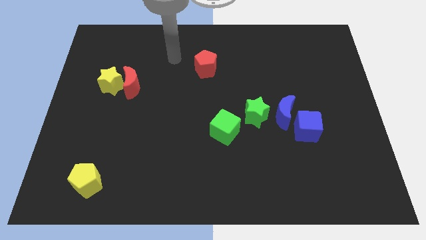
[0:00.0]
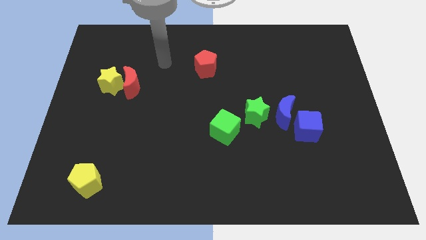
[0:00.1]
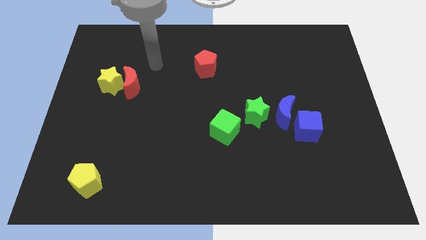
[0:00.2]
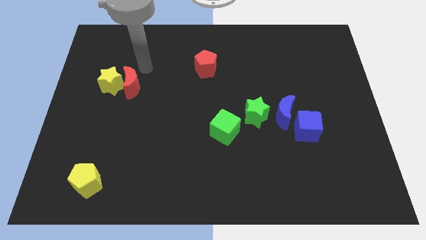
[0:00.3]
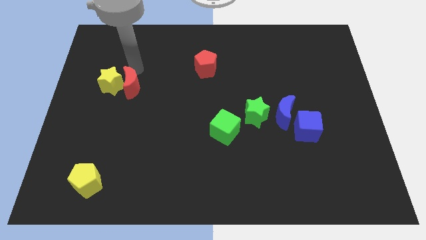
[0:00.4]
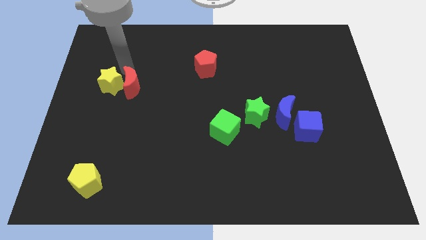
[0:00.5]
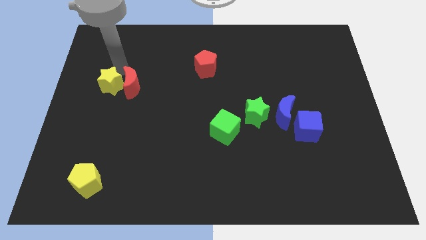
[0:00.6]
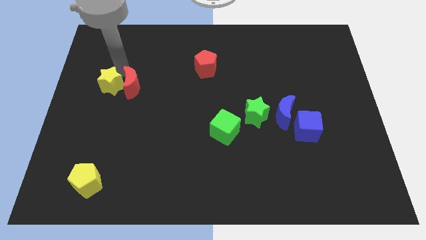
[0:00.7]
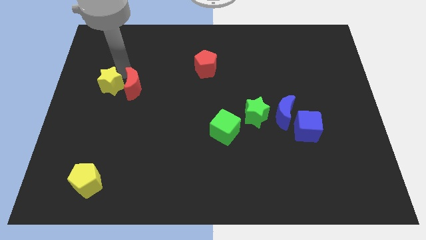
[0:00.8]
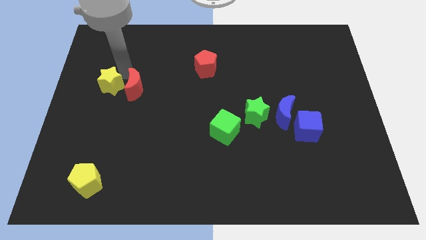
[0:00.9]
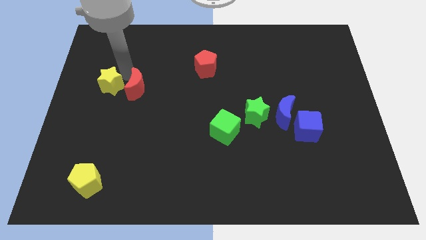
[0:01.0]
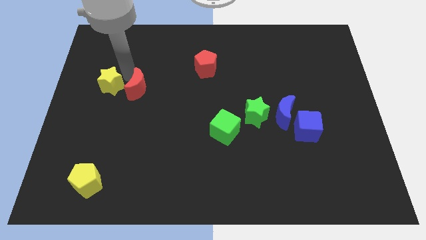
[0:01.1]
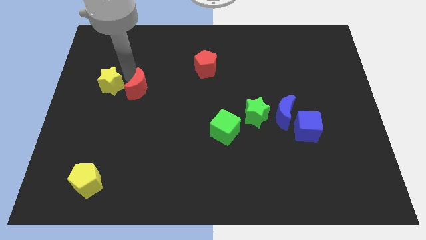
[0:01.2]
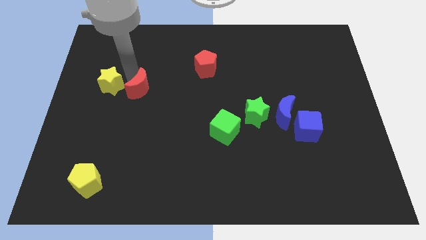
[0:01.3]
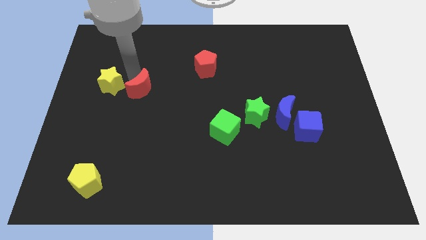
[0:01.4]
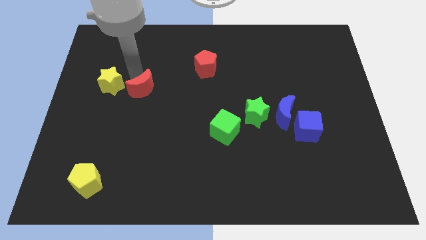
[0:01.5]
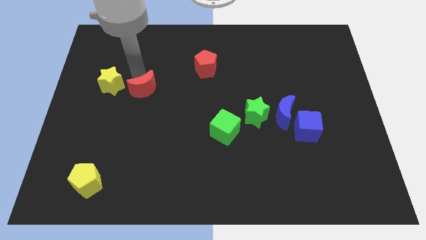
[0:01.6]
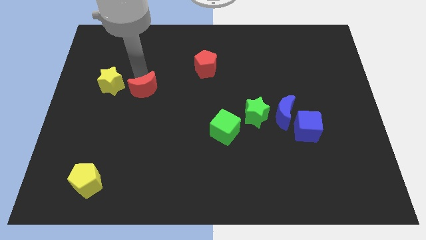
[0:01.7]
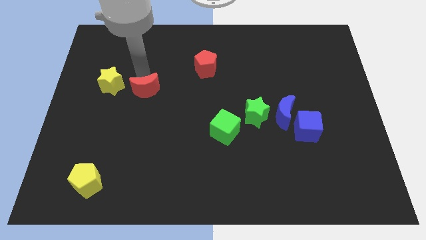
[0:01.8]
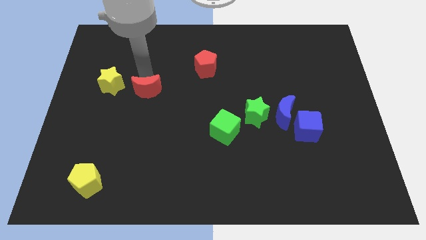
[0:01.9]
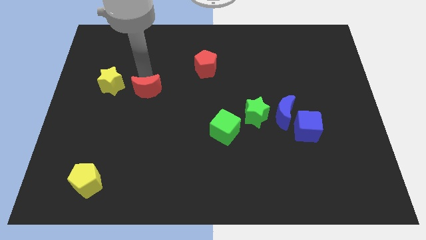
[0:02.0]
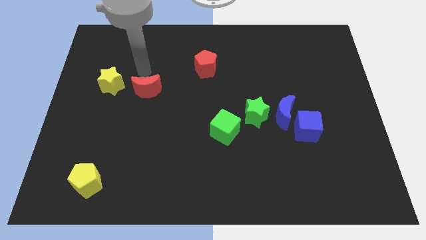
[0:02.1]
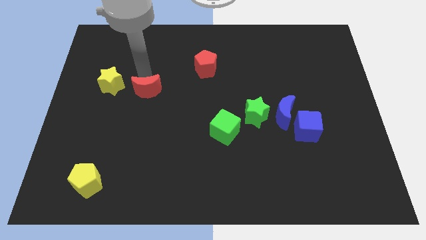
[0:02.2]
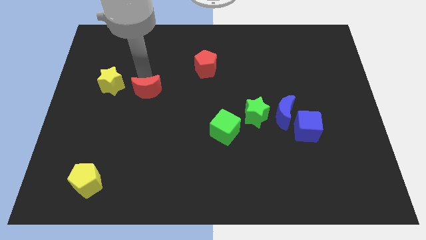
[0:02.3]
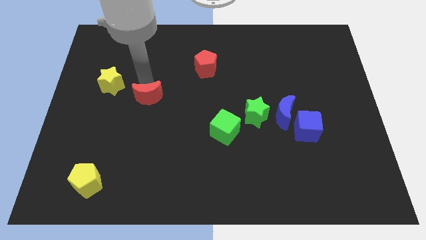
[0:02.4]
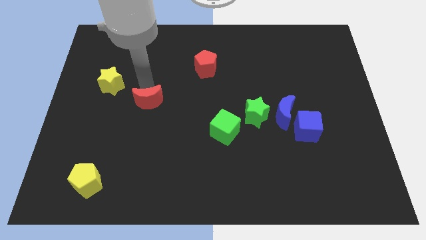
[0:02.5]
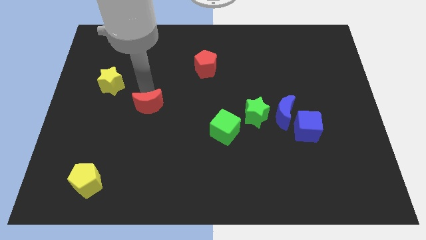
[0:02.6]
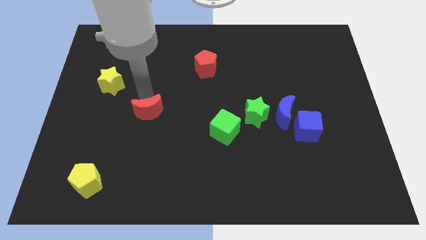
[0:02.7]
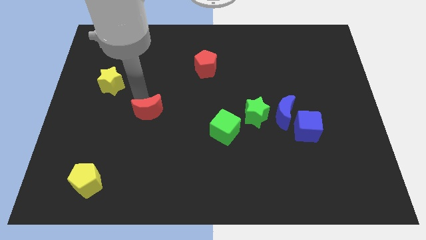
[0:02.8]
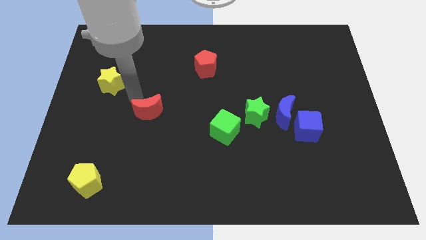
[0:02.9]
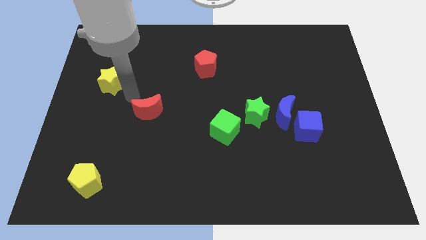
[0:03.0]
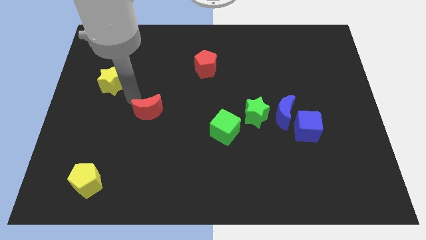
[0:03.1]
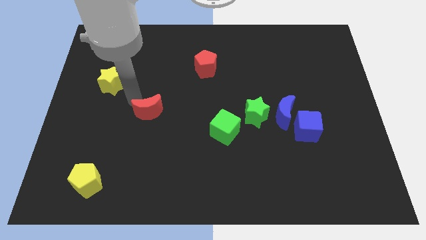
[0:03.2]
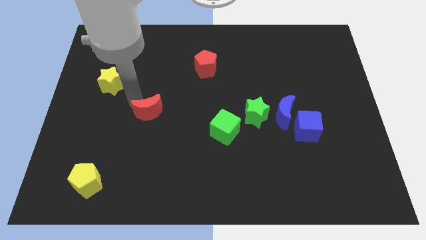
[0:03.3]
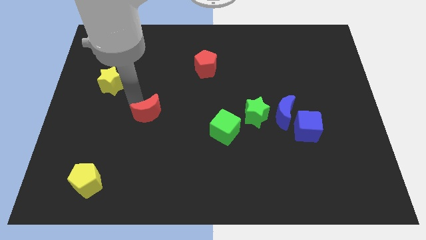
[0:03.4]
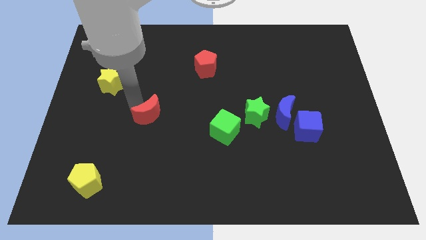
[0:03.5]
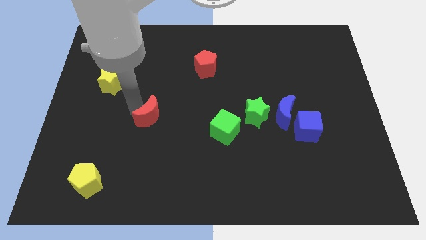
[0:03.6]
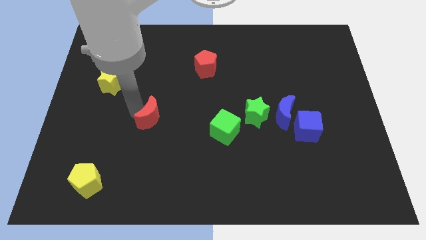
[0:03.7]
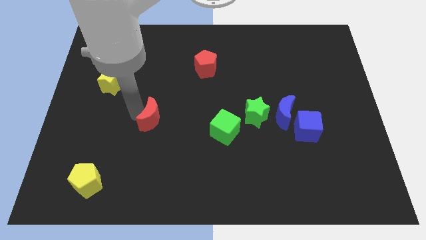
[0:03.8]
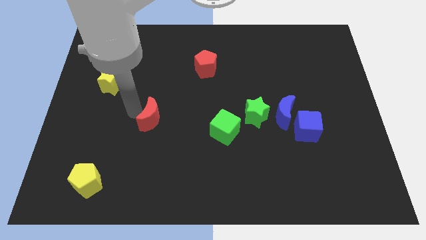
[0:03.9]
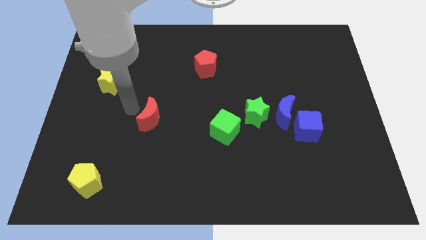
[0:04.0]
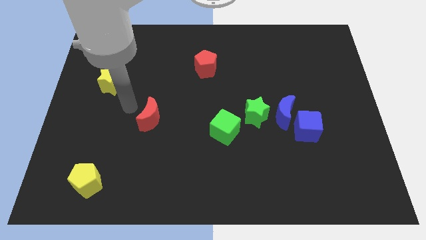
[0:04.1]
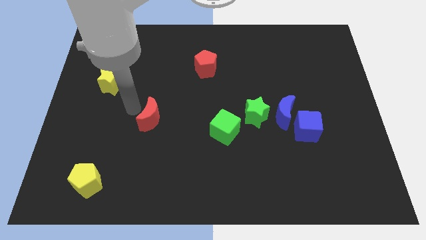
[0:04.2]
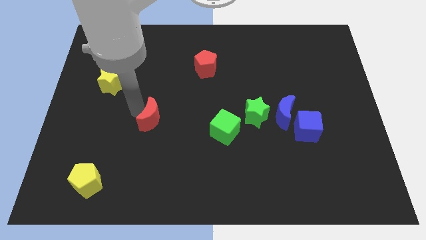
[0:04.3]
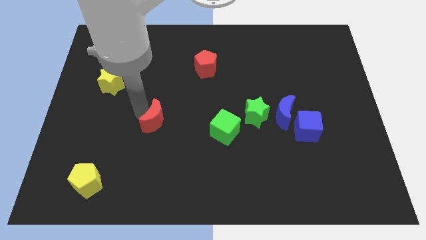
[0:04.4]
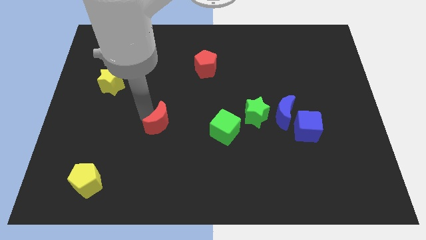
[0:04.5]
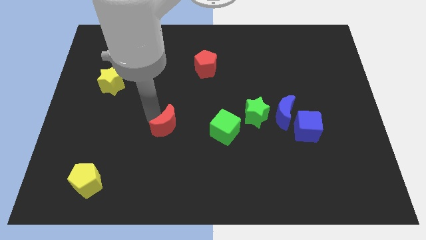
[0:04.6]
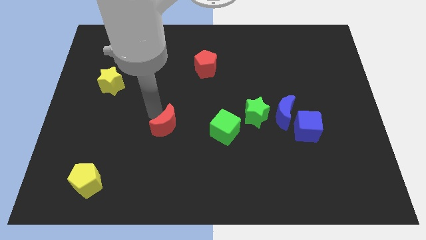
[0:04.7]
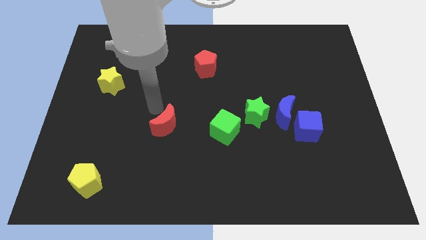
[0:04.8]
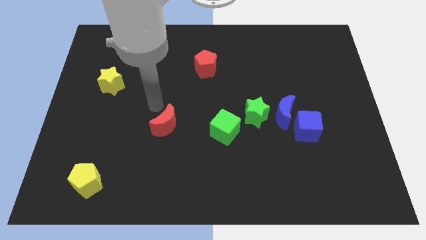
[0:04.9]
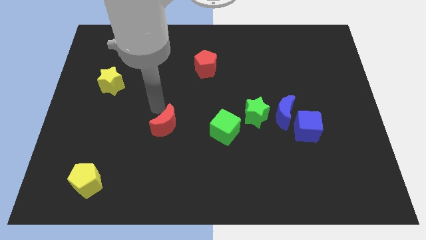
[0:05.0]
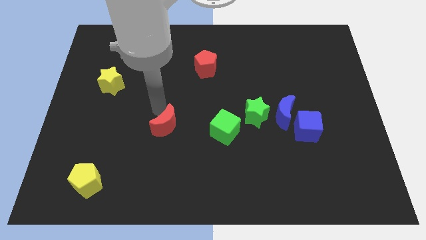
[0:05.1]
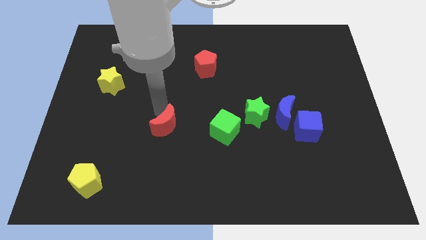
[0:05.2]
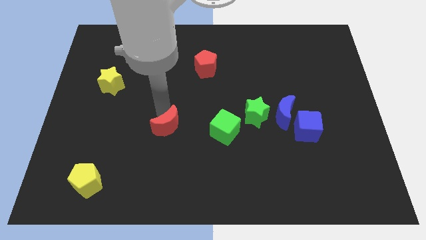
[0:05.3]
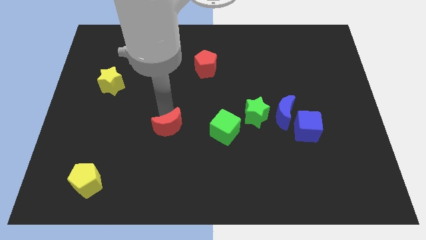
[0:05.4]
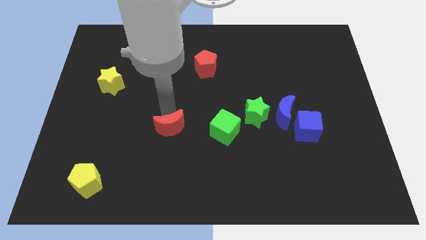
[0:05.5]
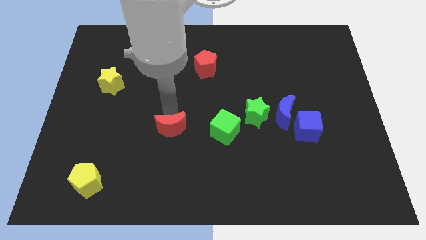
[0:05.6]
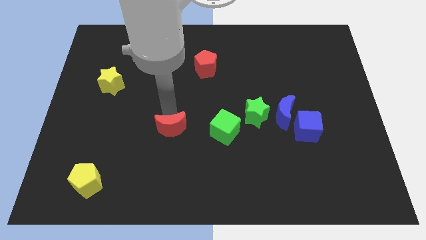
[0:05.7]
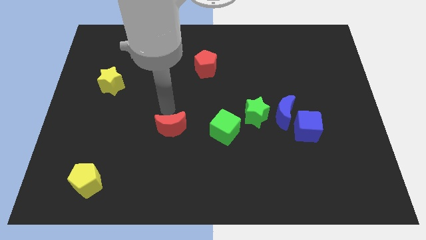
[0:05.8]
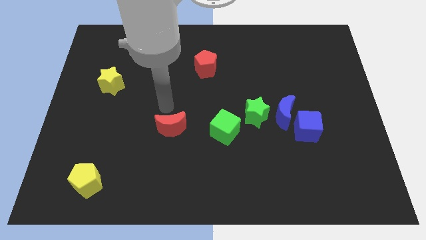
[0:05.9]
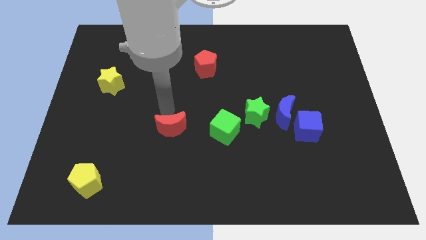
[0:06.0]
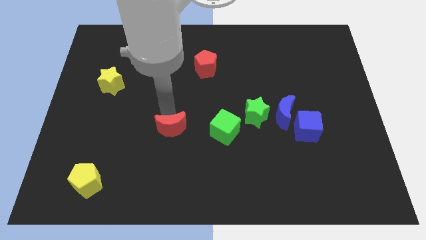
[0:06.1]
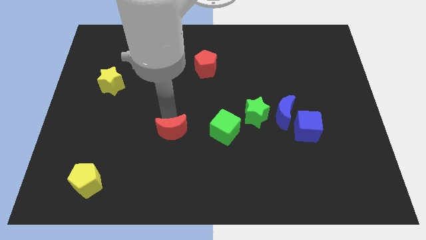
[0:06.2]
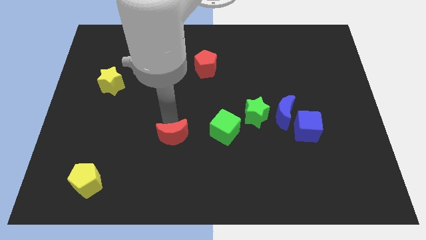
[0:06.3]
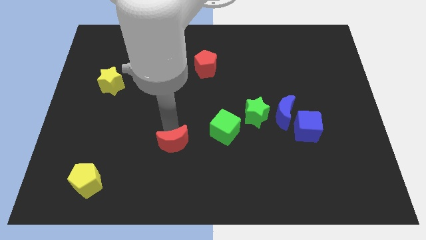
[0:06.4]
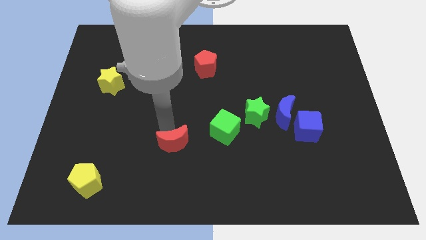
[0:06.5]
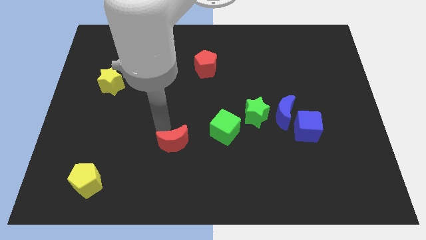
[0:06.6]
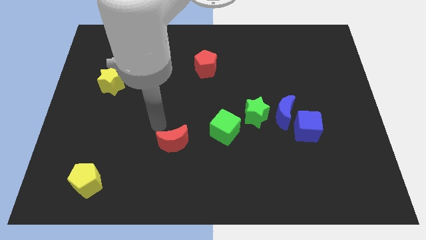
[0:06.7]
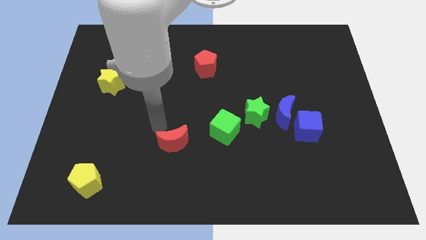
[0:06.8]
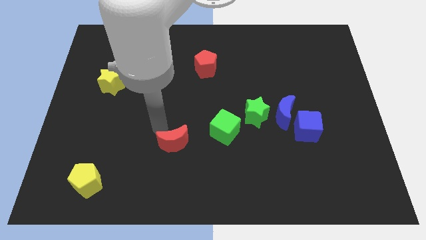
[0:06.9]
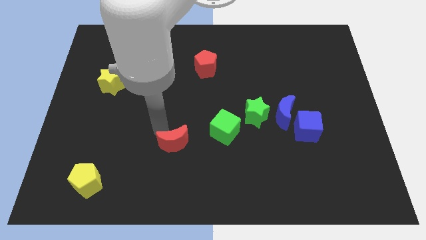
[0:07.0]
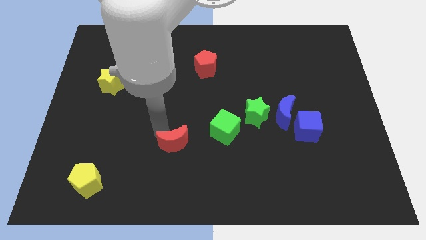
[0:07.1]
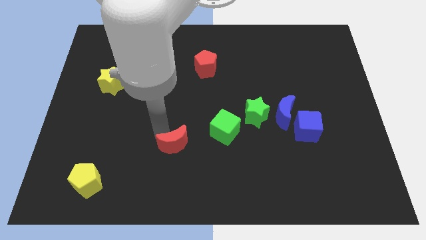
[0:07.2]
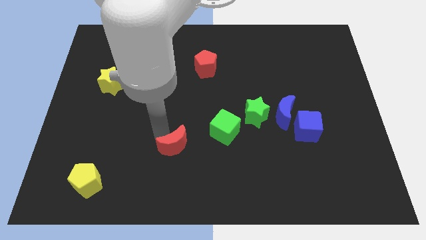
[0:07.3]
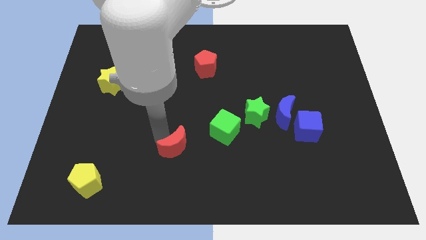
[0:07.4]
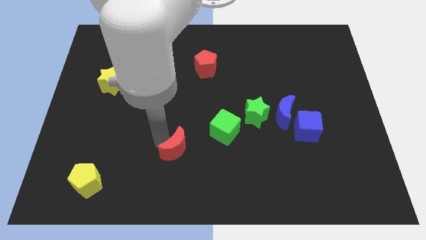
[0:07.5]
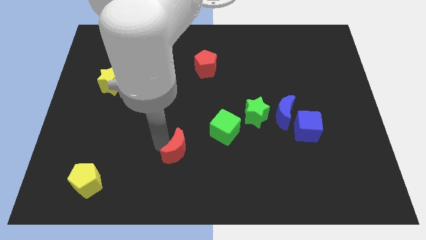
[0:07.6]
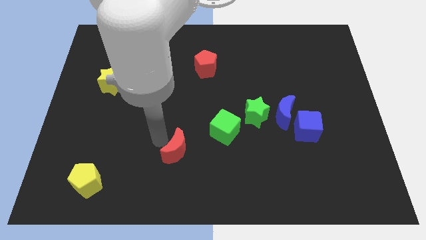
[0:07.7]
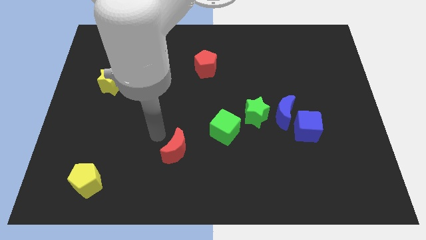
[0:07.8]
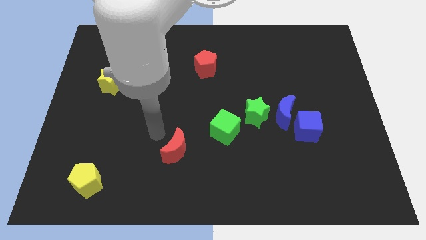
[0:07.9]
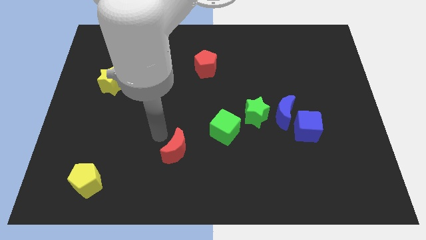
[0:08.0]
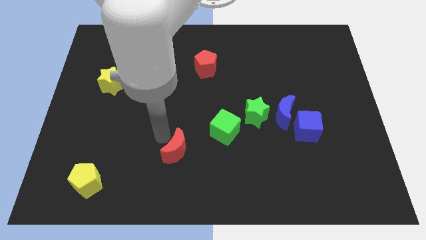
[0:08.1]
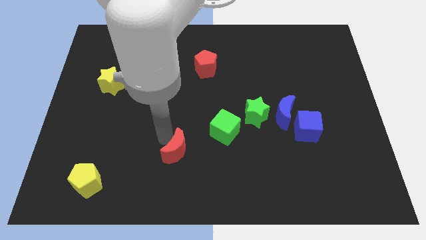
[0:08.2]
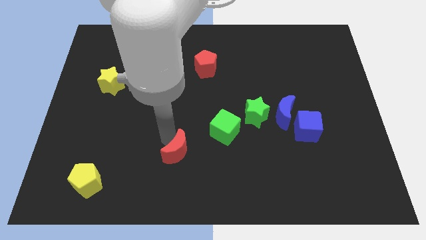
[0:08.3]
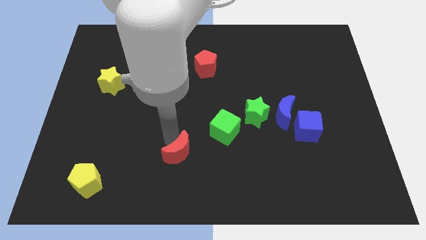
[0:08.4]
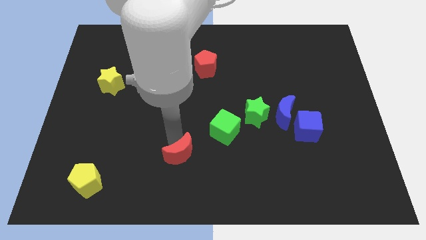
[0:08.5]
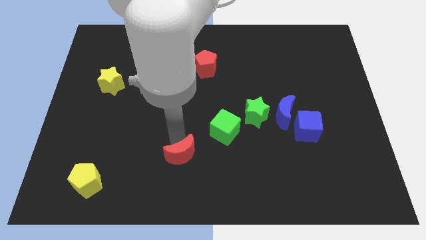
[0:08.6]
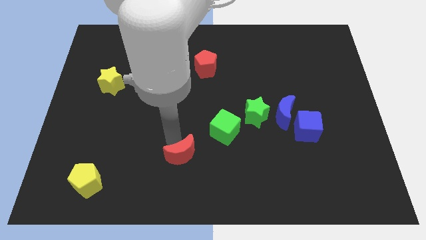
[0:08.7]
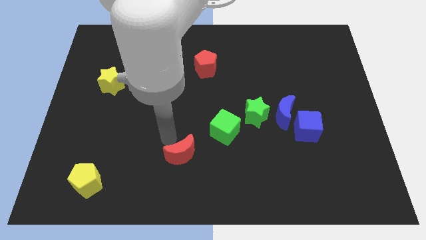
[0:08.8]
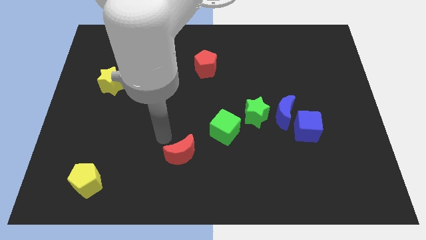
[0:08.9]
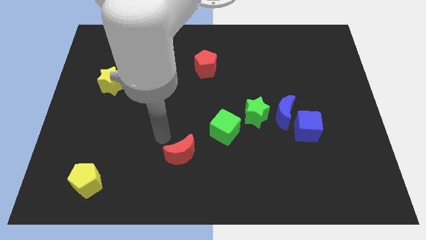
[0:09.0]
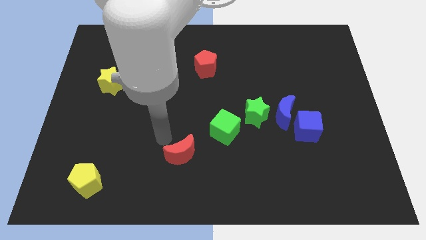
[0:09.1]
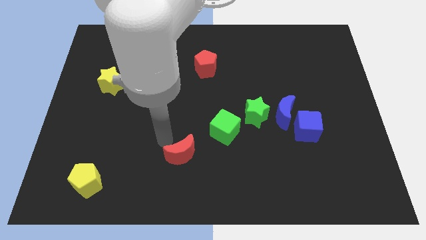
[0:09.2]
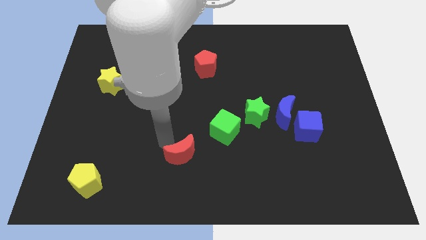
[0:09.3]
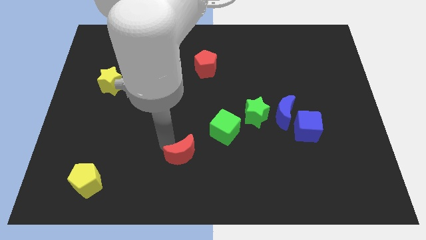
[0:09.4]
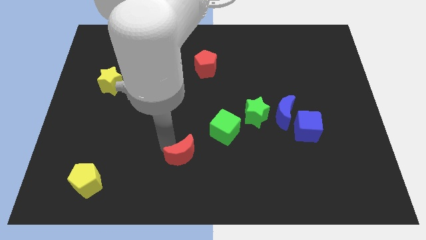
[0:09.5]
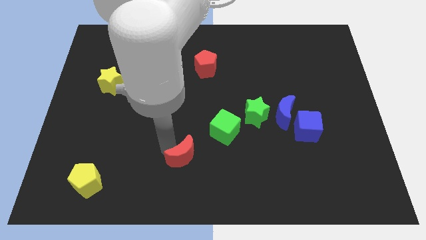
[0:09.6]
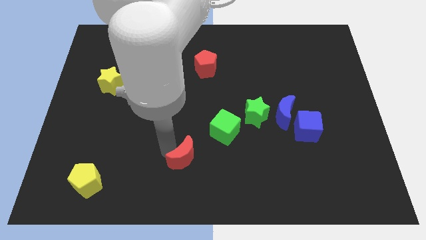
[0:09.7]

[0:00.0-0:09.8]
put the red moon to the bottom side
